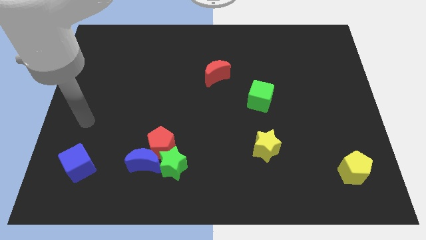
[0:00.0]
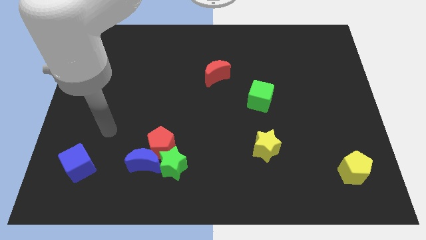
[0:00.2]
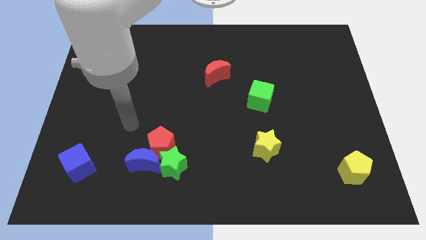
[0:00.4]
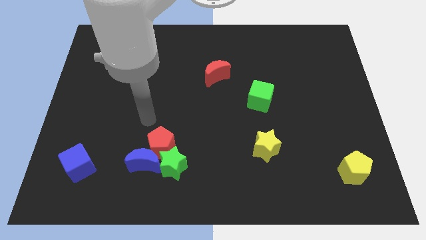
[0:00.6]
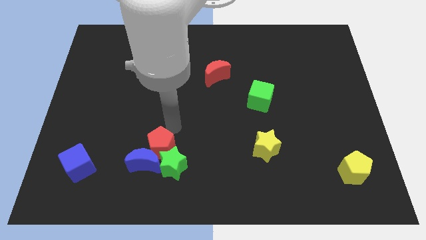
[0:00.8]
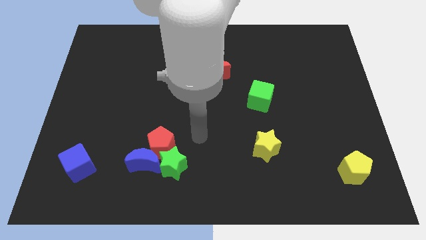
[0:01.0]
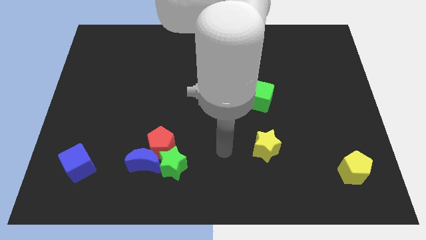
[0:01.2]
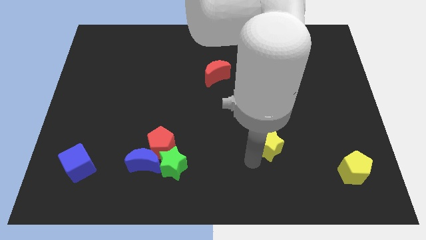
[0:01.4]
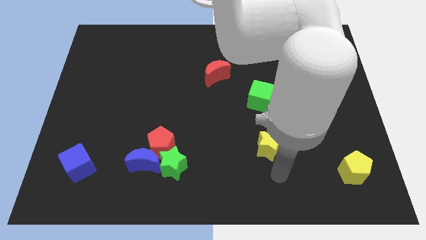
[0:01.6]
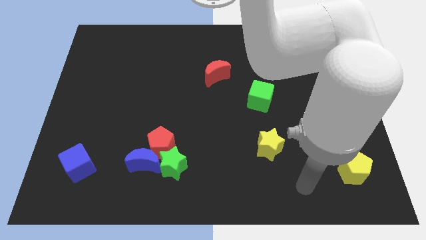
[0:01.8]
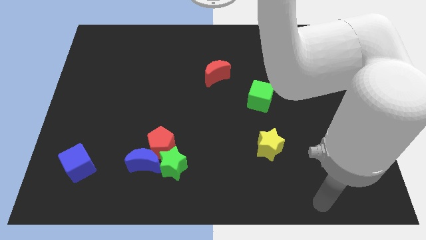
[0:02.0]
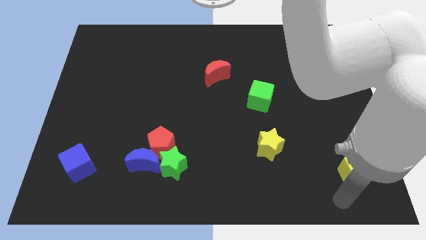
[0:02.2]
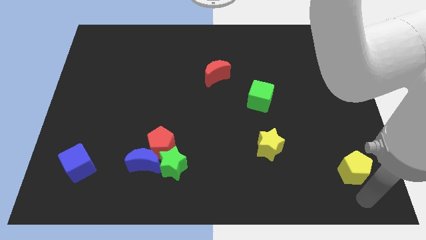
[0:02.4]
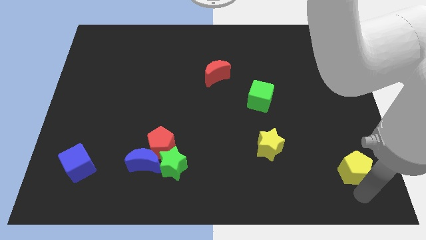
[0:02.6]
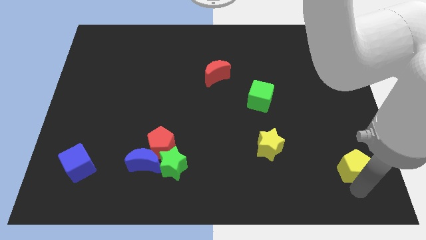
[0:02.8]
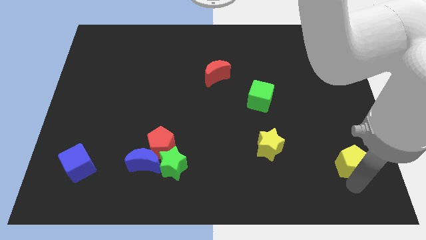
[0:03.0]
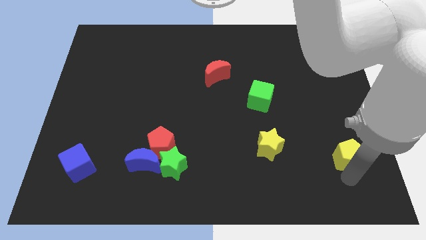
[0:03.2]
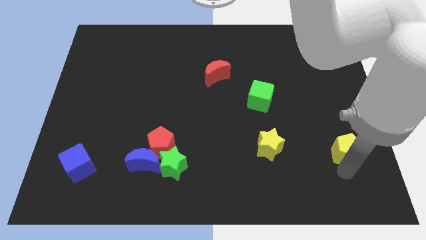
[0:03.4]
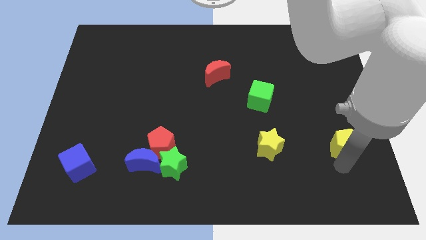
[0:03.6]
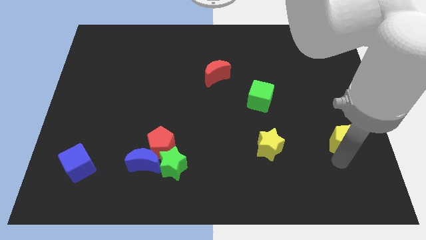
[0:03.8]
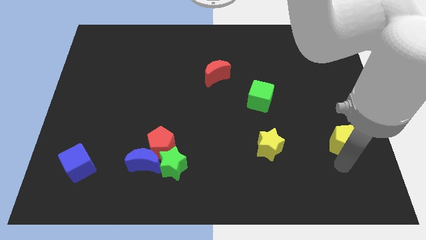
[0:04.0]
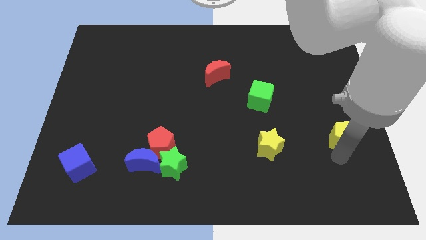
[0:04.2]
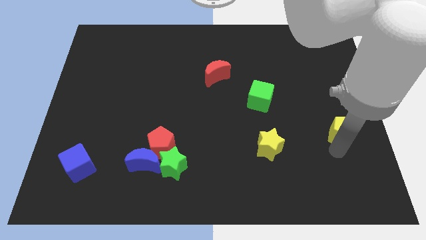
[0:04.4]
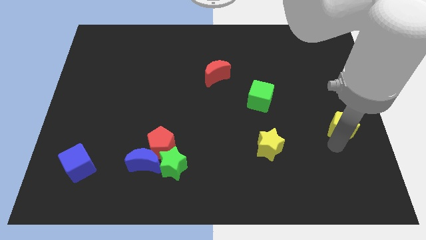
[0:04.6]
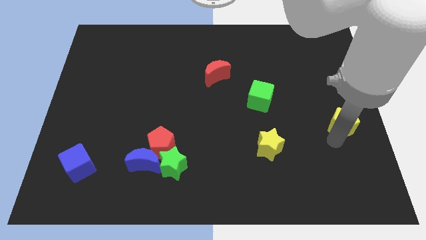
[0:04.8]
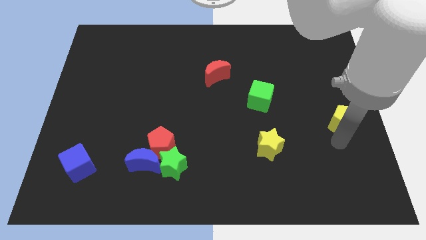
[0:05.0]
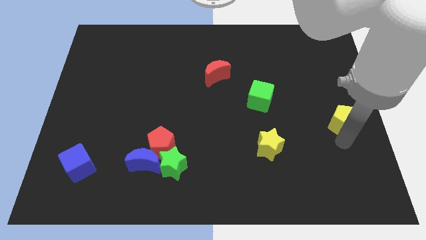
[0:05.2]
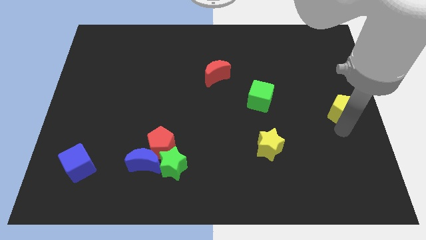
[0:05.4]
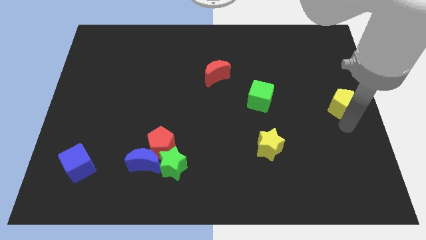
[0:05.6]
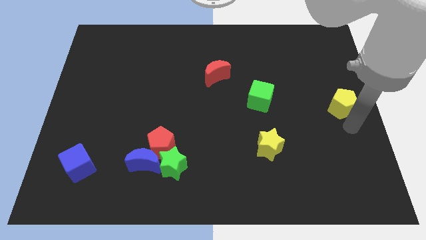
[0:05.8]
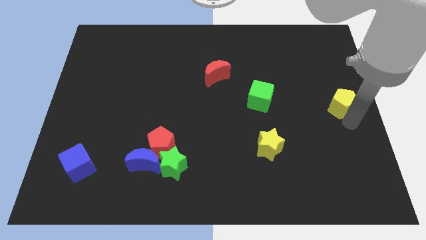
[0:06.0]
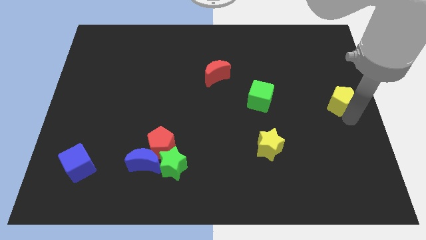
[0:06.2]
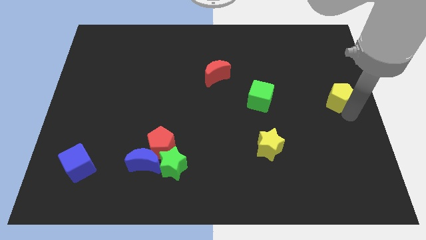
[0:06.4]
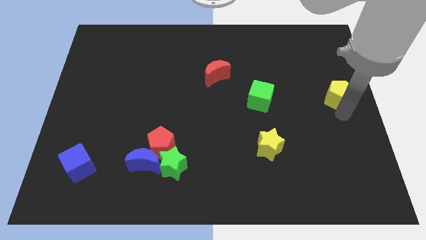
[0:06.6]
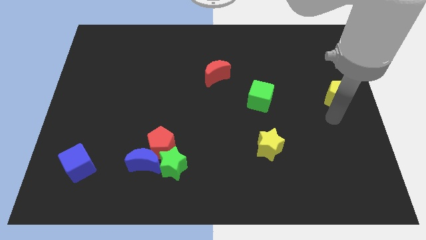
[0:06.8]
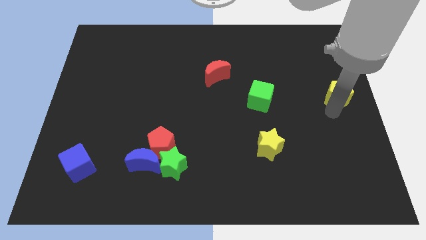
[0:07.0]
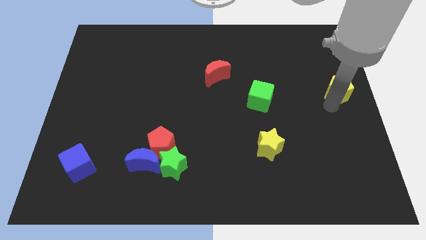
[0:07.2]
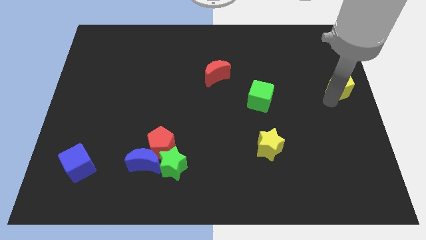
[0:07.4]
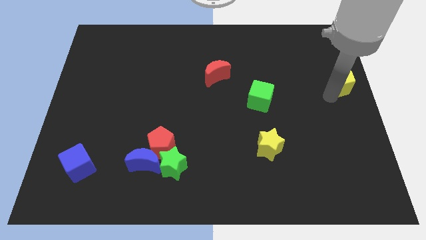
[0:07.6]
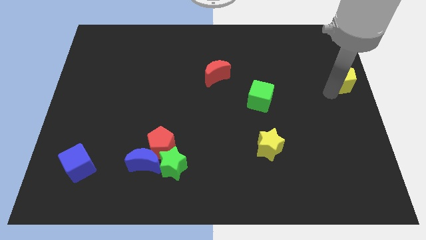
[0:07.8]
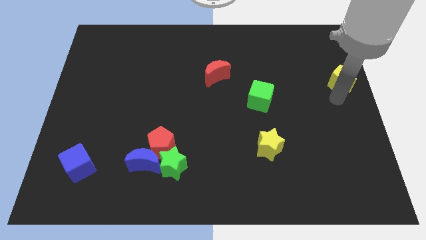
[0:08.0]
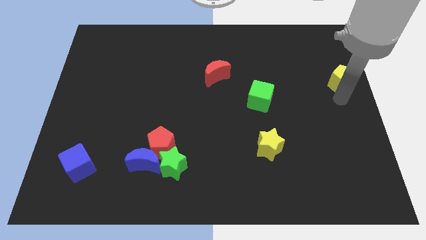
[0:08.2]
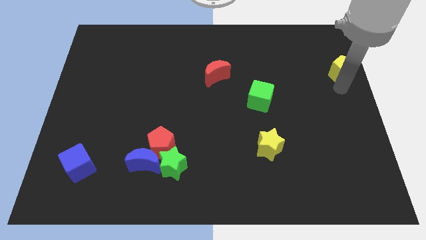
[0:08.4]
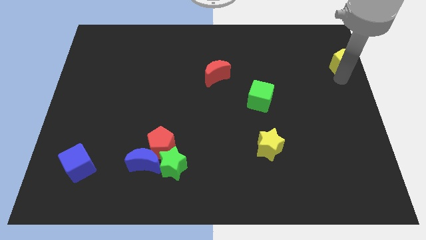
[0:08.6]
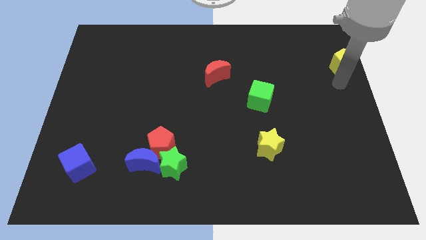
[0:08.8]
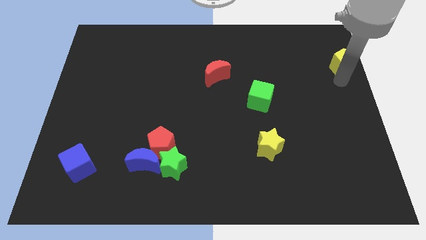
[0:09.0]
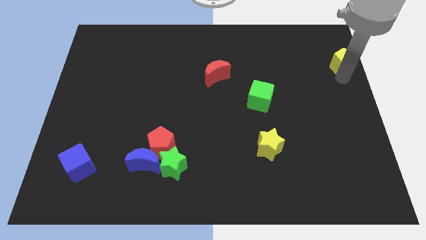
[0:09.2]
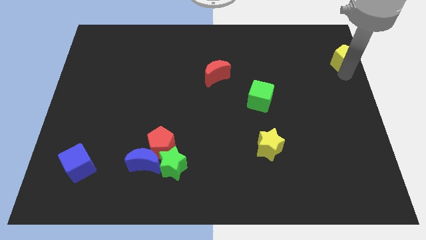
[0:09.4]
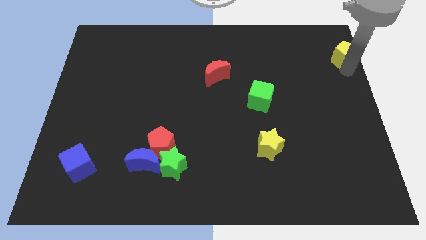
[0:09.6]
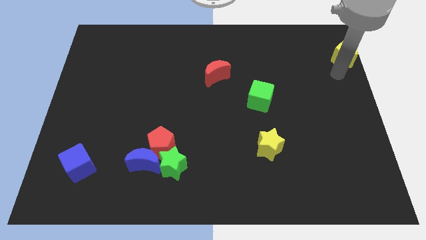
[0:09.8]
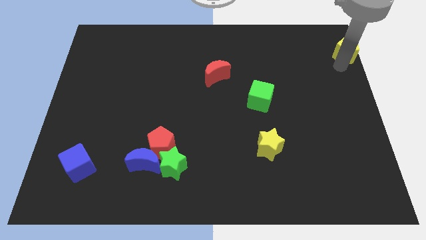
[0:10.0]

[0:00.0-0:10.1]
push the yellow pentagon to the top right

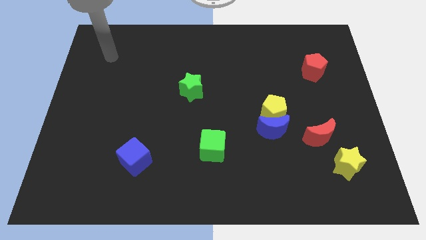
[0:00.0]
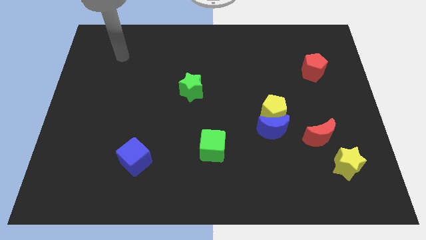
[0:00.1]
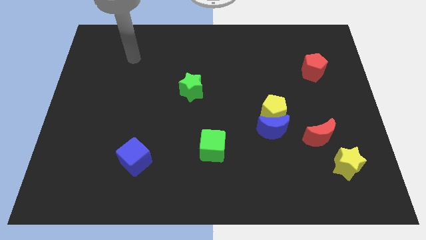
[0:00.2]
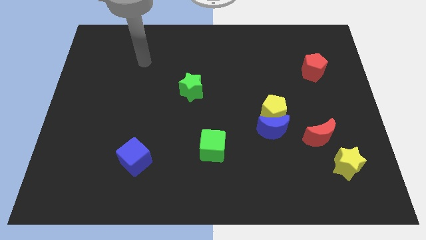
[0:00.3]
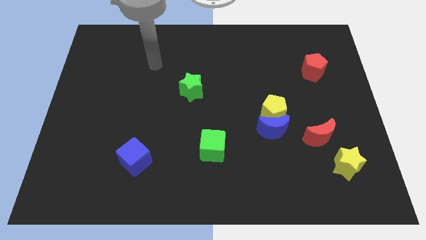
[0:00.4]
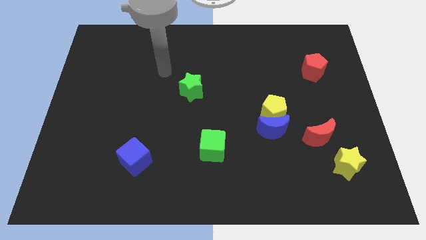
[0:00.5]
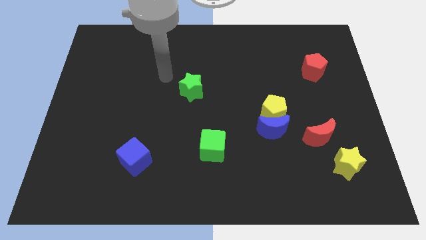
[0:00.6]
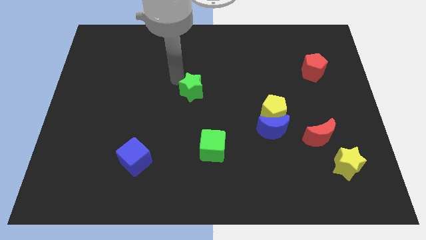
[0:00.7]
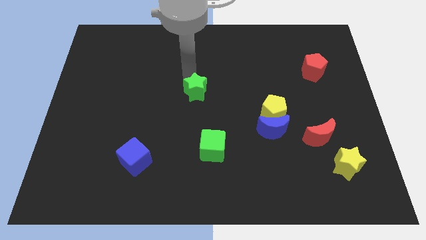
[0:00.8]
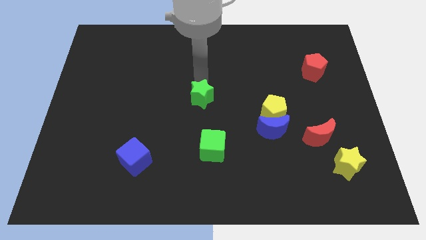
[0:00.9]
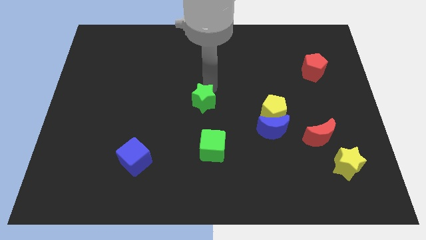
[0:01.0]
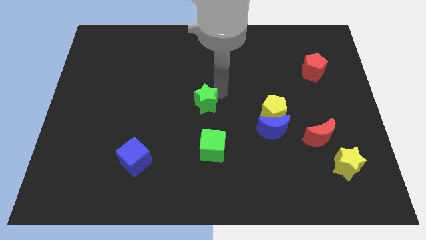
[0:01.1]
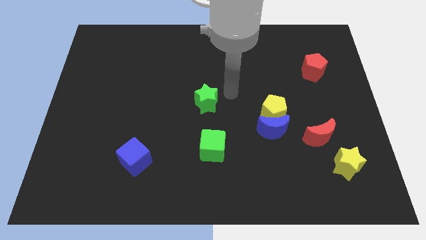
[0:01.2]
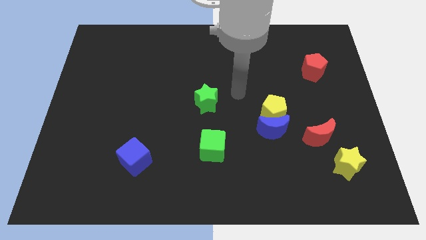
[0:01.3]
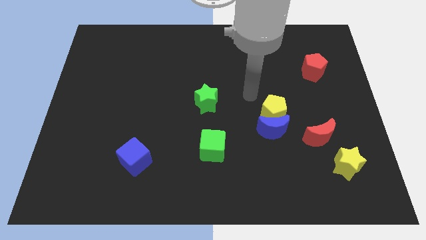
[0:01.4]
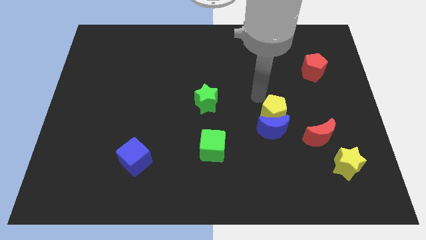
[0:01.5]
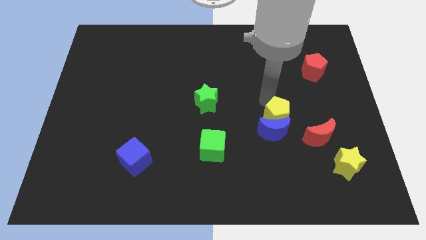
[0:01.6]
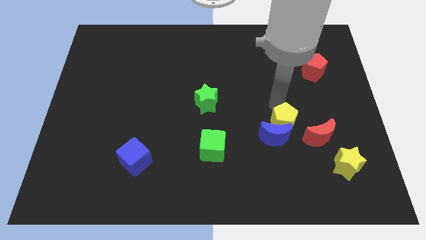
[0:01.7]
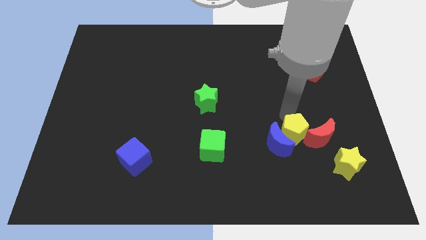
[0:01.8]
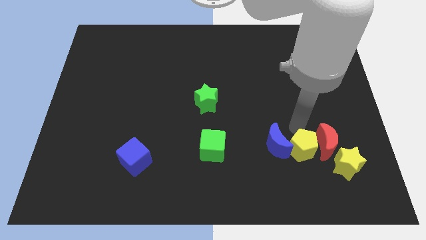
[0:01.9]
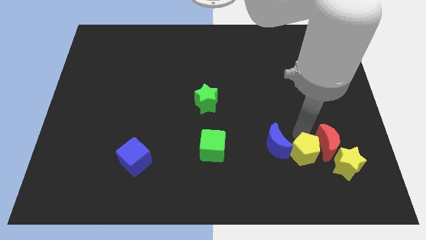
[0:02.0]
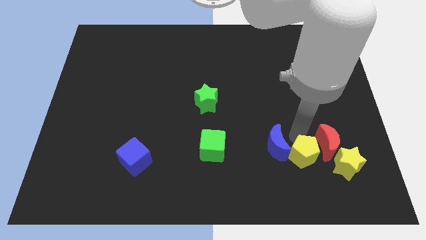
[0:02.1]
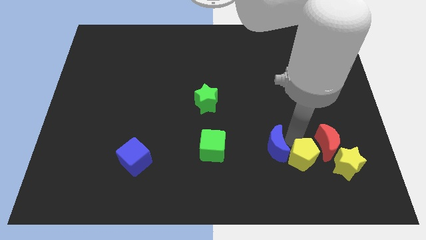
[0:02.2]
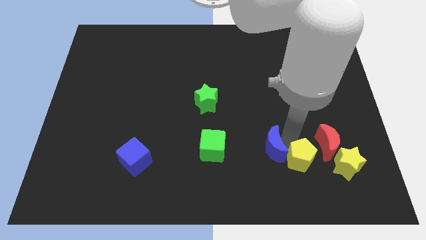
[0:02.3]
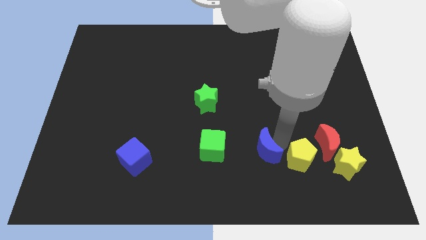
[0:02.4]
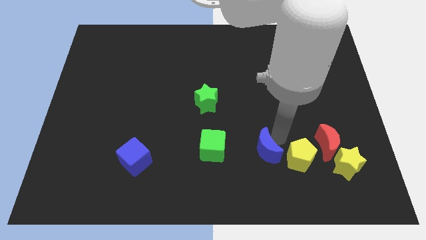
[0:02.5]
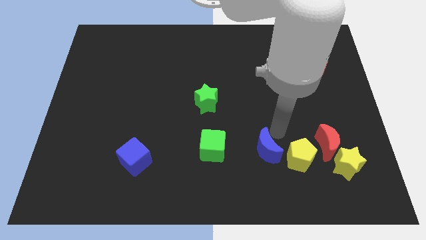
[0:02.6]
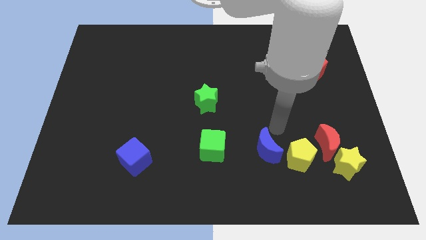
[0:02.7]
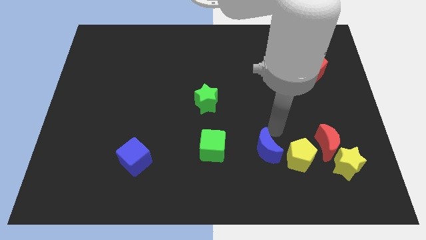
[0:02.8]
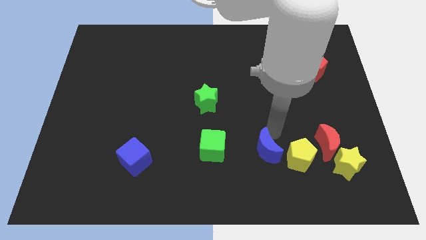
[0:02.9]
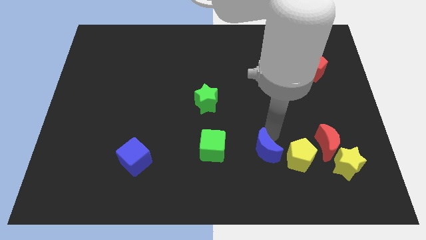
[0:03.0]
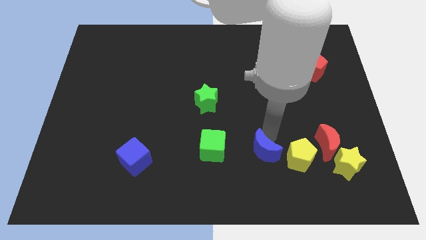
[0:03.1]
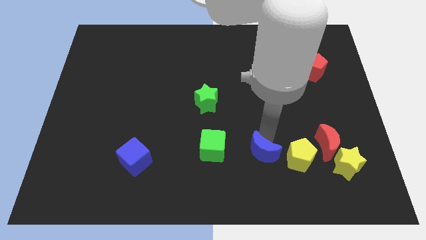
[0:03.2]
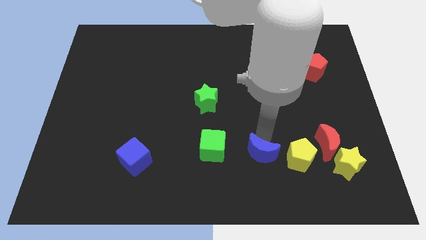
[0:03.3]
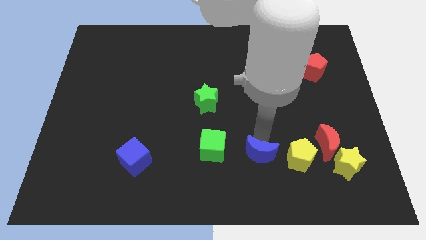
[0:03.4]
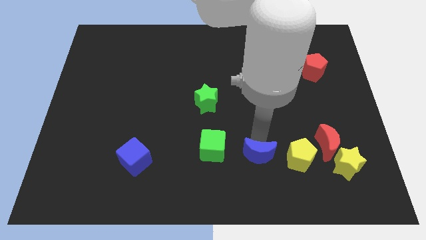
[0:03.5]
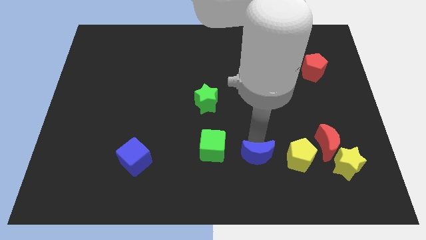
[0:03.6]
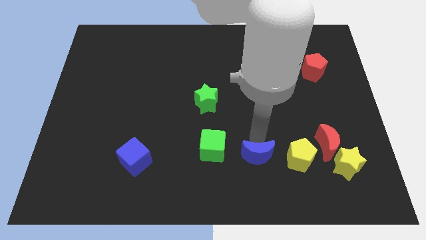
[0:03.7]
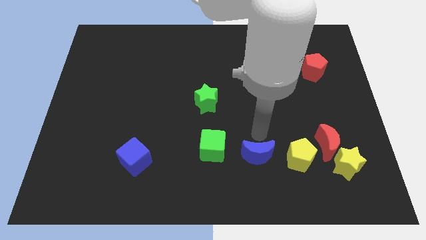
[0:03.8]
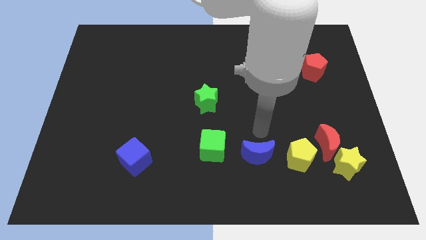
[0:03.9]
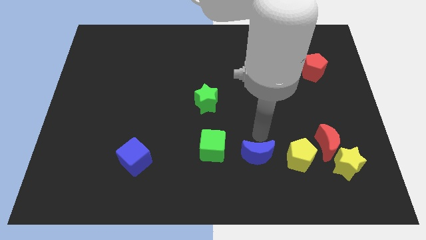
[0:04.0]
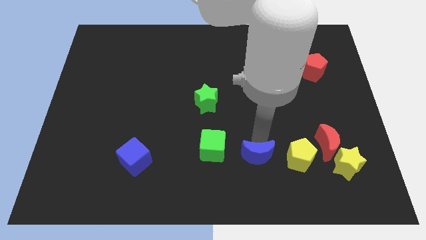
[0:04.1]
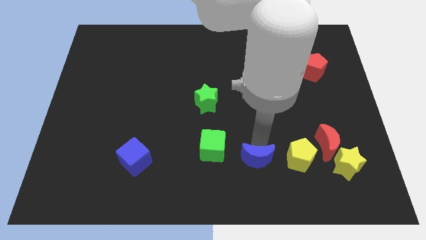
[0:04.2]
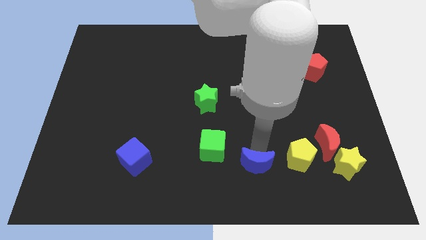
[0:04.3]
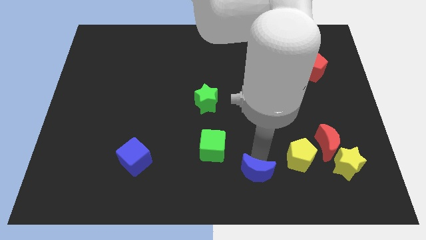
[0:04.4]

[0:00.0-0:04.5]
slide the blue moon to the bottom
